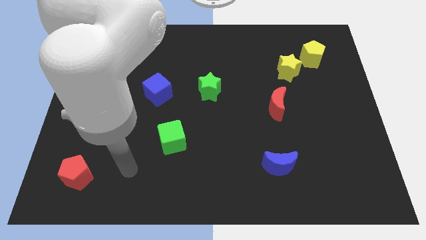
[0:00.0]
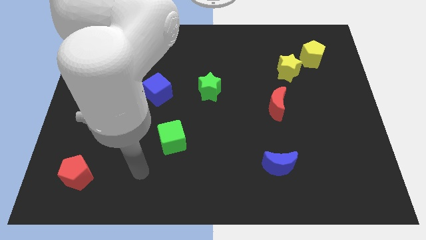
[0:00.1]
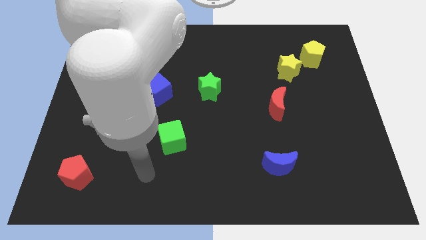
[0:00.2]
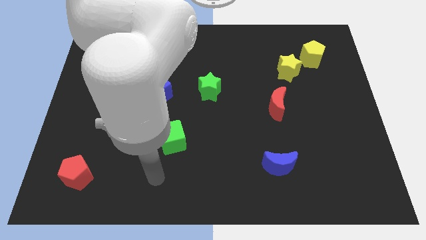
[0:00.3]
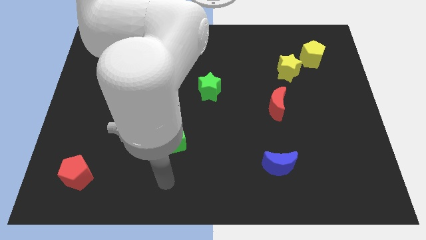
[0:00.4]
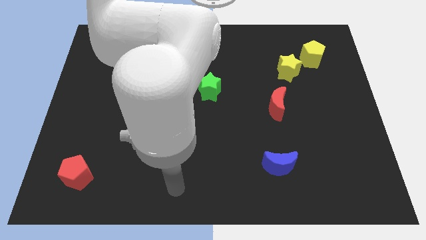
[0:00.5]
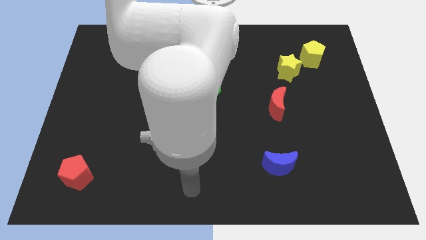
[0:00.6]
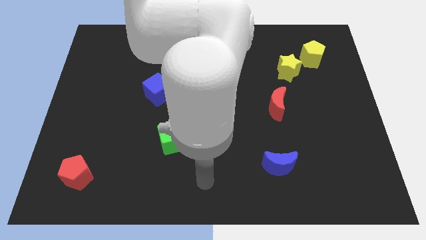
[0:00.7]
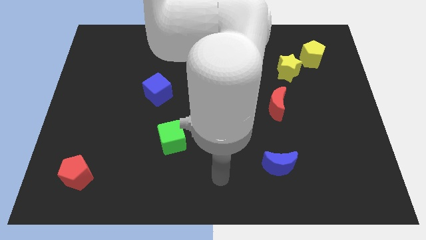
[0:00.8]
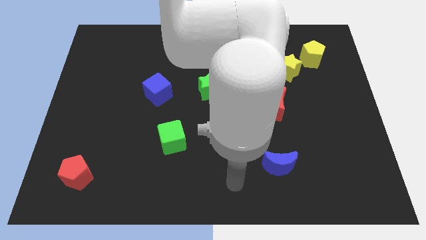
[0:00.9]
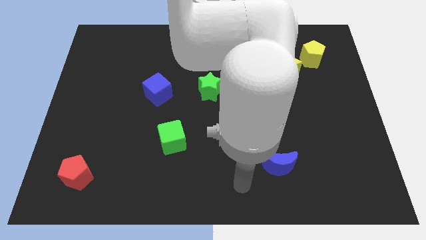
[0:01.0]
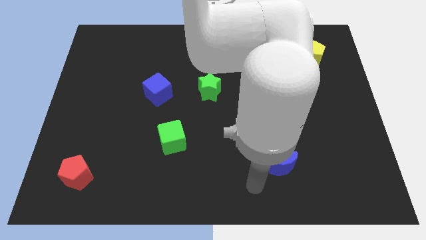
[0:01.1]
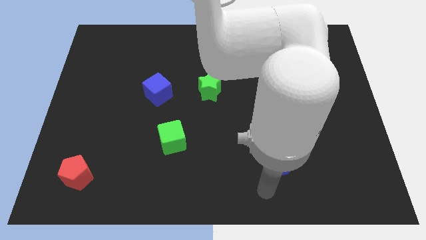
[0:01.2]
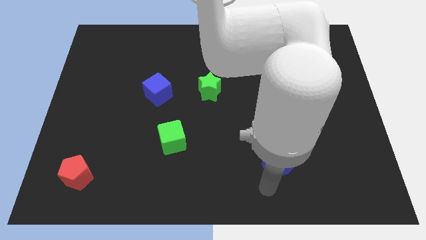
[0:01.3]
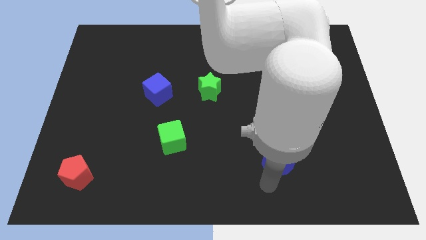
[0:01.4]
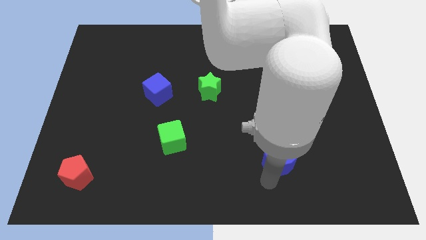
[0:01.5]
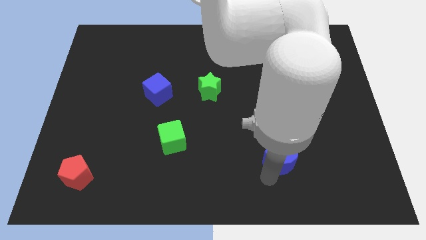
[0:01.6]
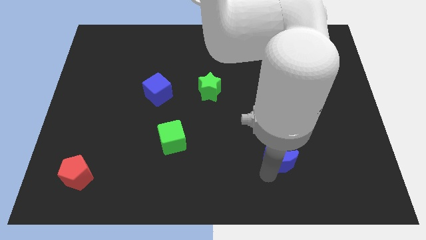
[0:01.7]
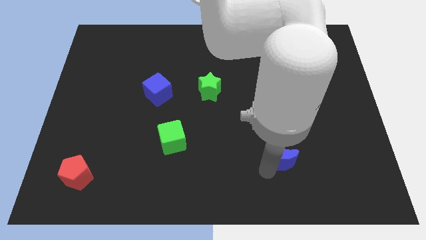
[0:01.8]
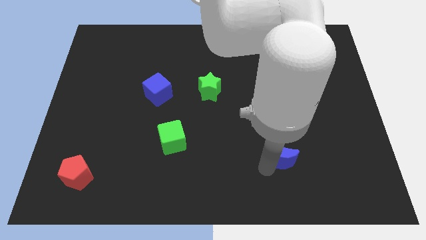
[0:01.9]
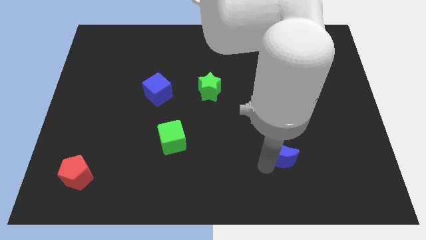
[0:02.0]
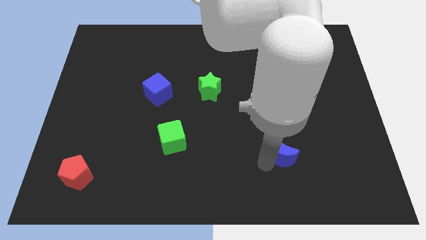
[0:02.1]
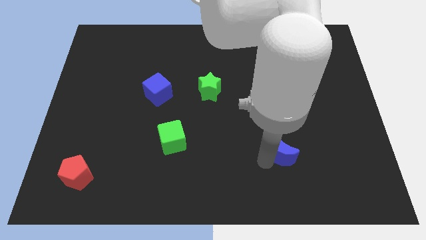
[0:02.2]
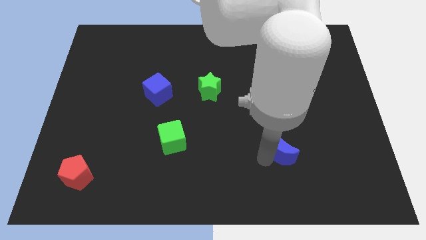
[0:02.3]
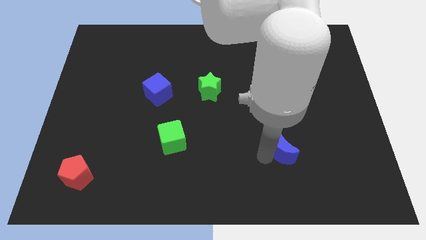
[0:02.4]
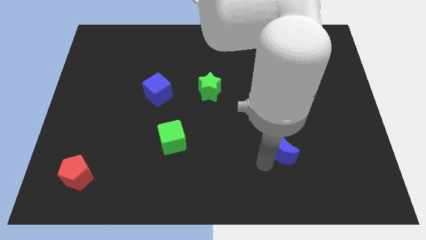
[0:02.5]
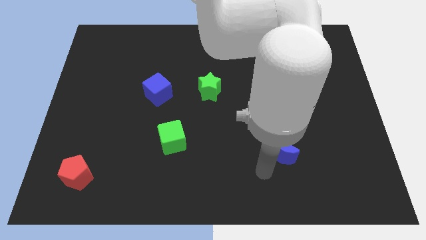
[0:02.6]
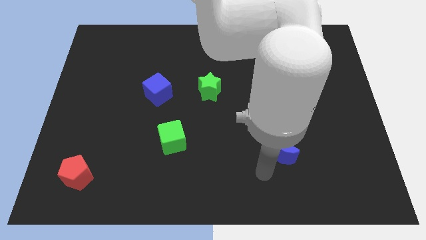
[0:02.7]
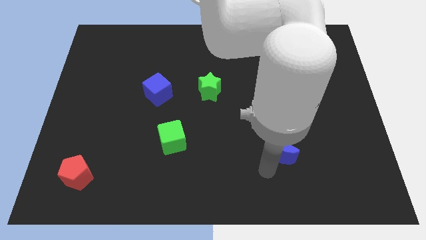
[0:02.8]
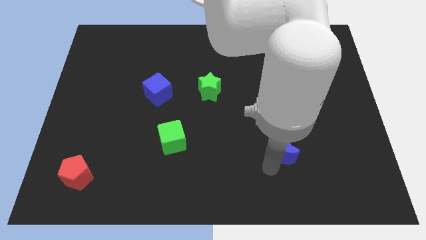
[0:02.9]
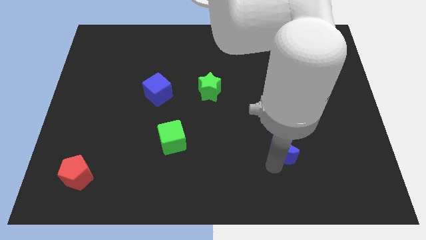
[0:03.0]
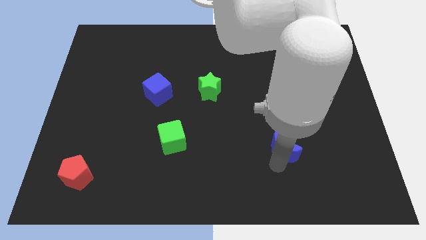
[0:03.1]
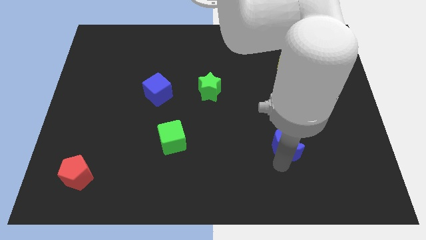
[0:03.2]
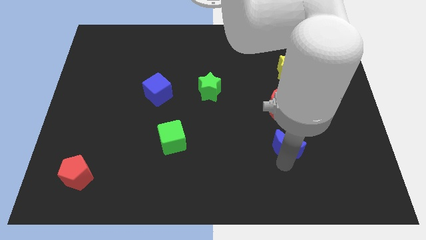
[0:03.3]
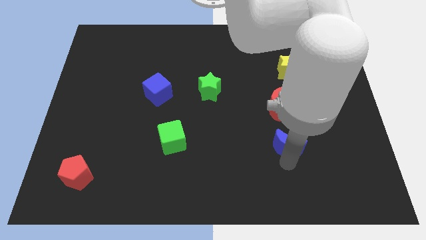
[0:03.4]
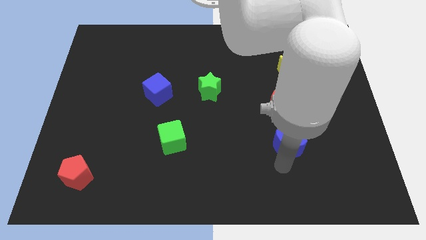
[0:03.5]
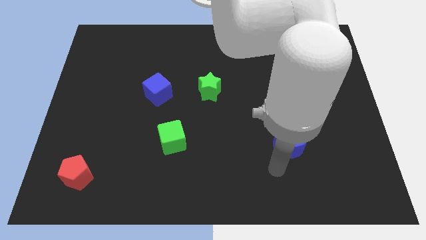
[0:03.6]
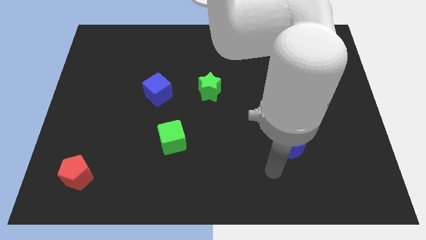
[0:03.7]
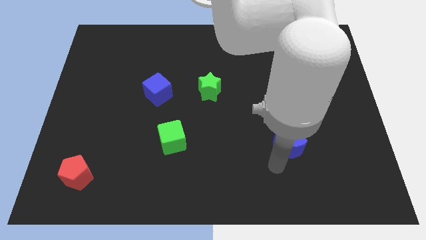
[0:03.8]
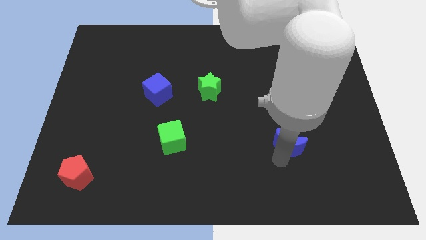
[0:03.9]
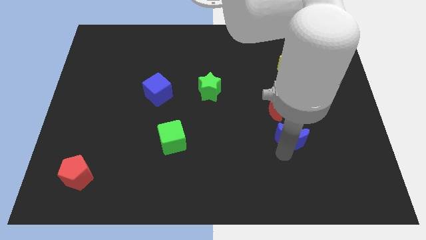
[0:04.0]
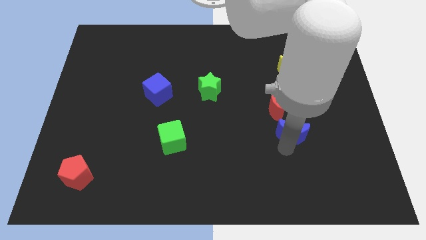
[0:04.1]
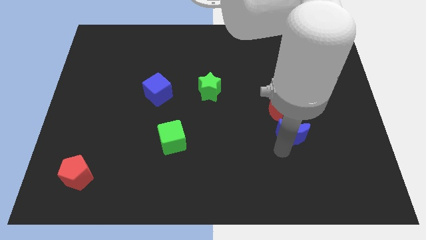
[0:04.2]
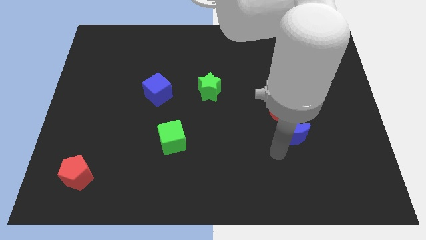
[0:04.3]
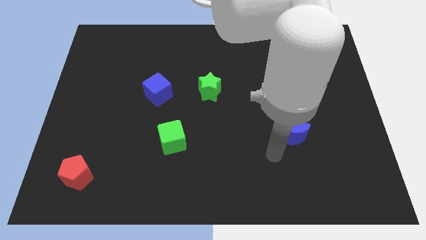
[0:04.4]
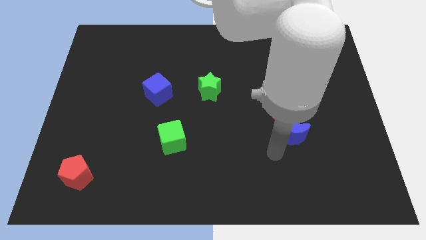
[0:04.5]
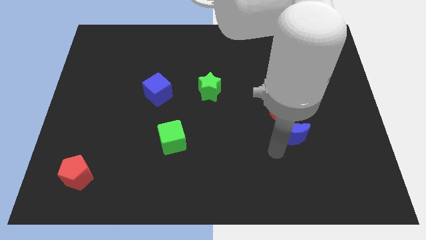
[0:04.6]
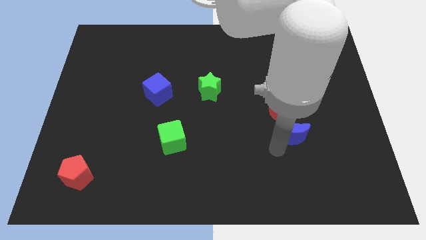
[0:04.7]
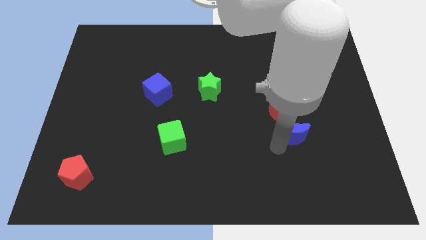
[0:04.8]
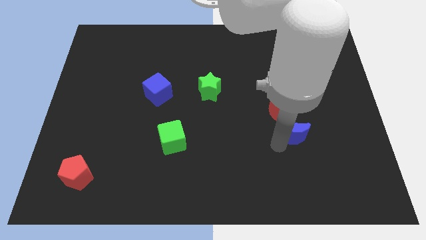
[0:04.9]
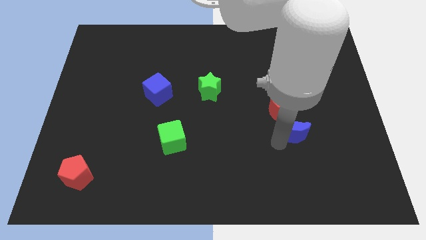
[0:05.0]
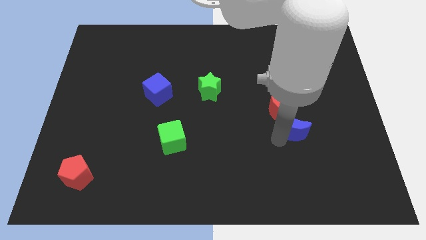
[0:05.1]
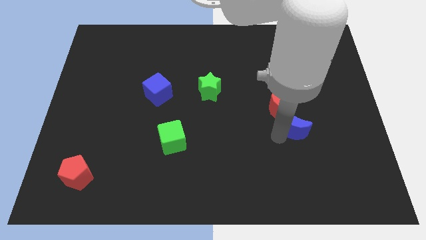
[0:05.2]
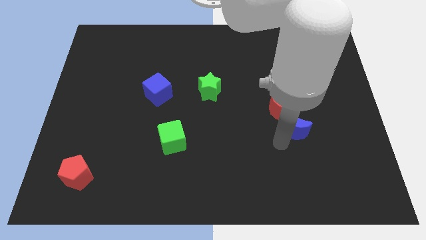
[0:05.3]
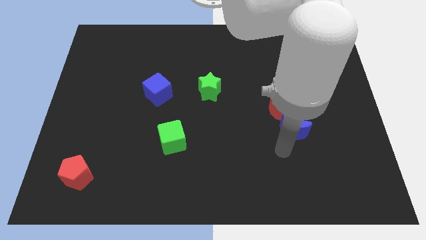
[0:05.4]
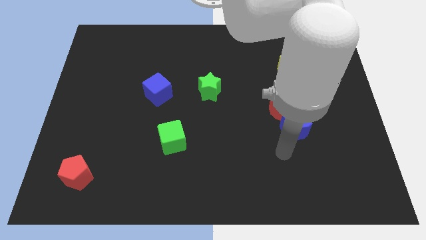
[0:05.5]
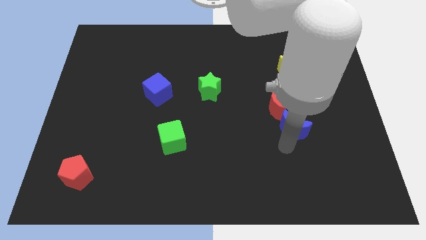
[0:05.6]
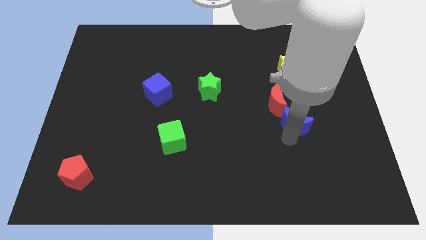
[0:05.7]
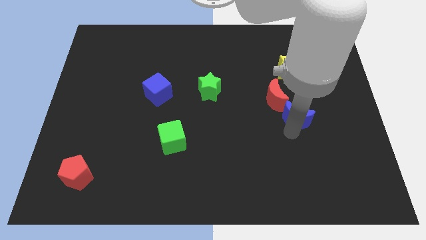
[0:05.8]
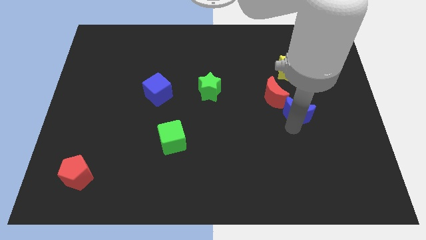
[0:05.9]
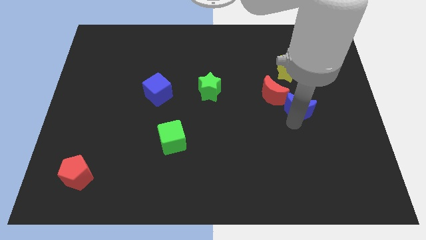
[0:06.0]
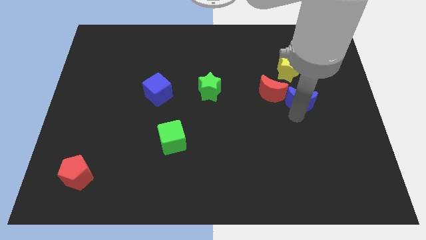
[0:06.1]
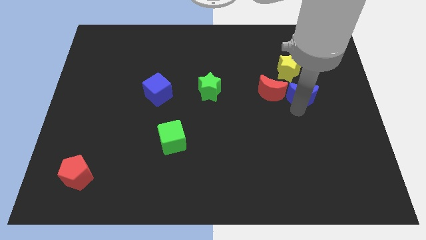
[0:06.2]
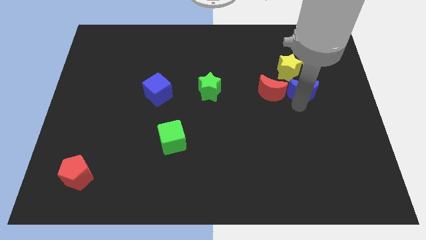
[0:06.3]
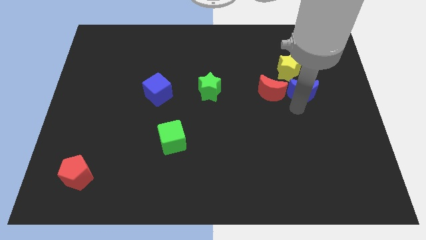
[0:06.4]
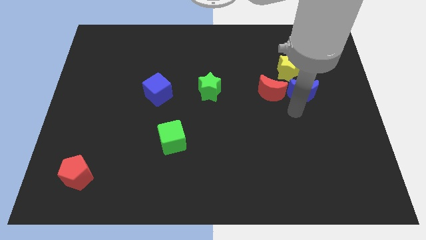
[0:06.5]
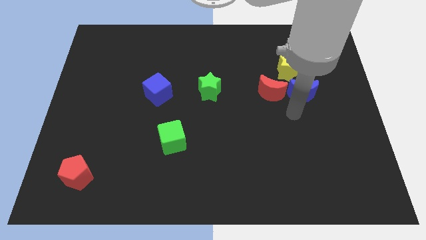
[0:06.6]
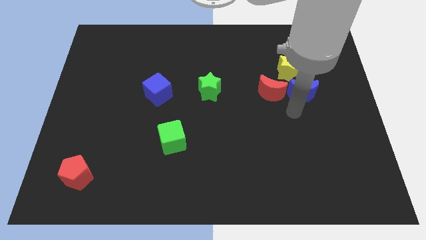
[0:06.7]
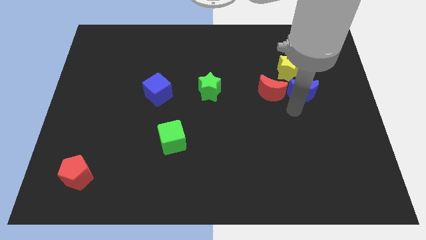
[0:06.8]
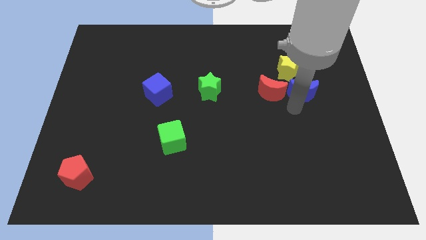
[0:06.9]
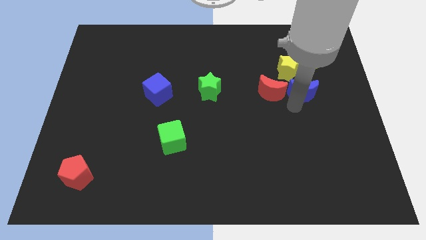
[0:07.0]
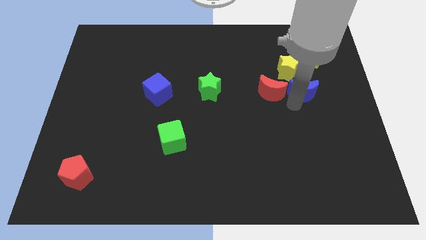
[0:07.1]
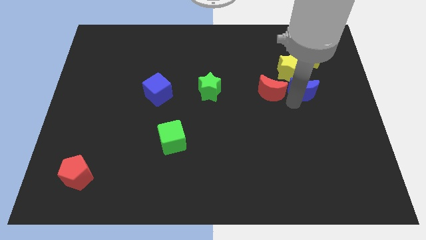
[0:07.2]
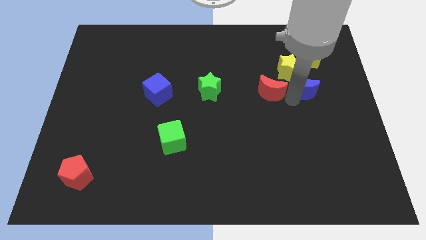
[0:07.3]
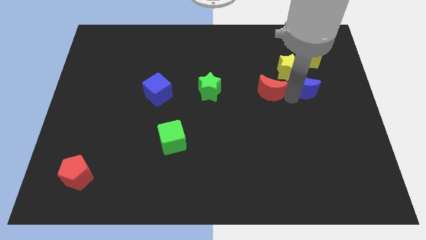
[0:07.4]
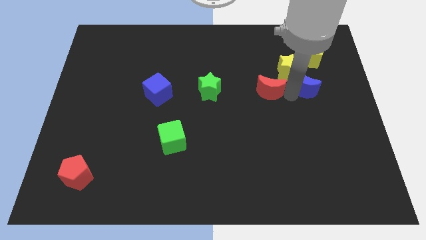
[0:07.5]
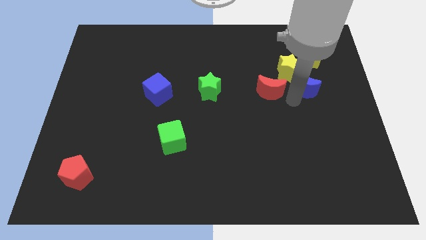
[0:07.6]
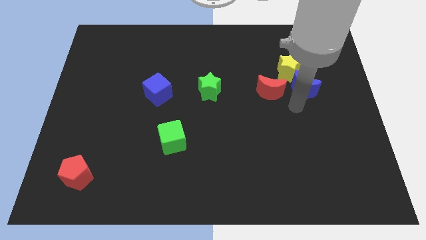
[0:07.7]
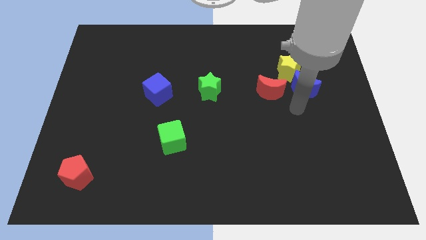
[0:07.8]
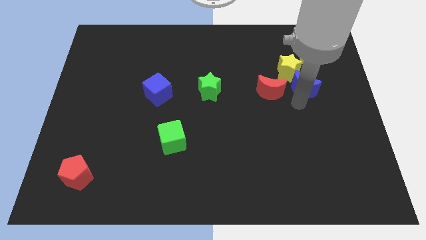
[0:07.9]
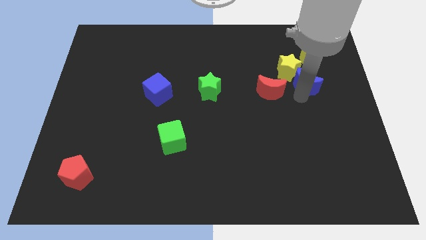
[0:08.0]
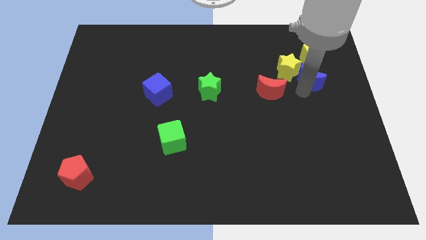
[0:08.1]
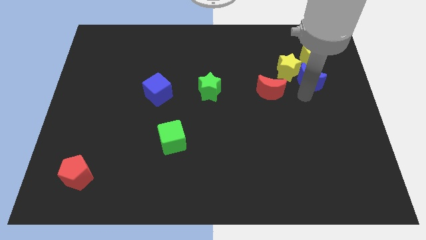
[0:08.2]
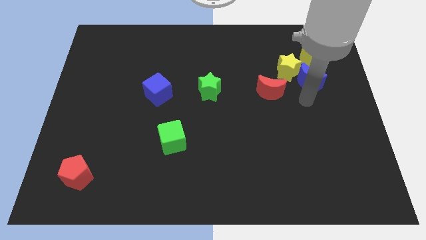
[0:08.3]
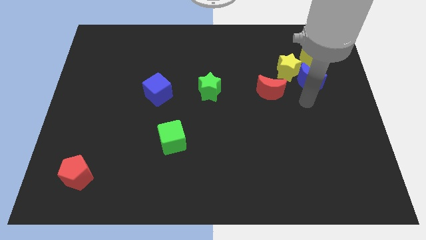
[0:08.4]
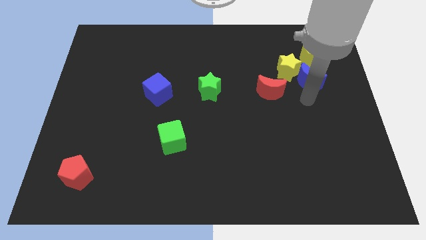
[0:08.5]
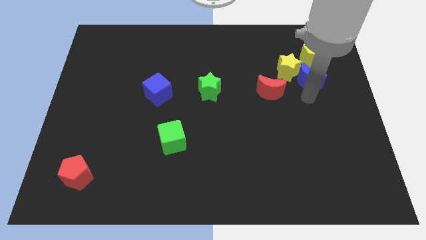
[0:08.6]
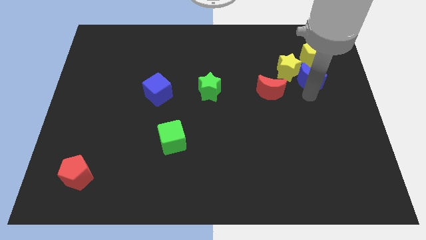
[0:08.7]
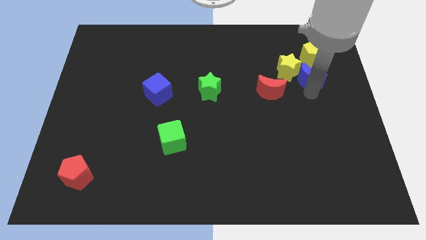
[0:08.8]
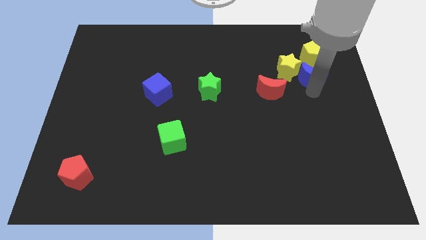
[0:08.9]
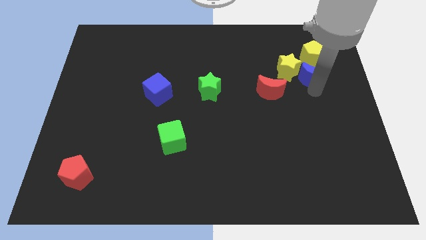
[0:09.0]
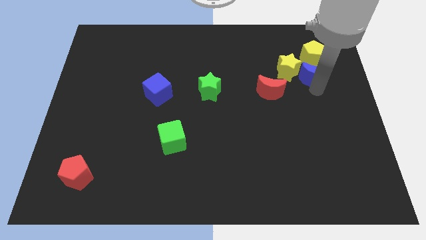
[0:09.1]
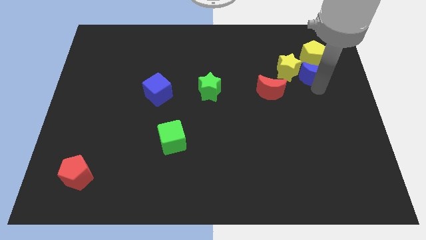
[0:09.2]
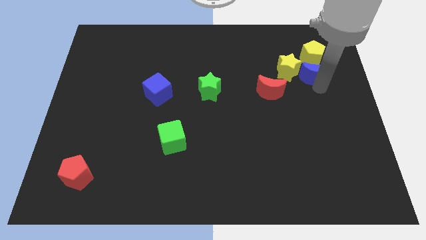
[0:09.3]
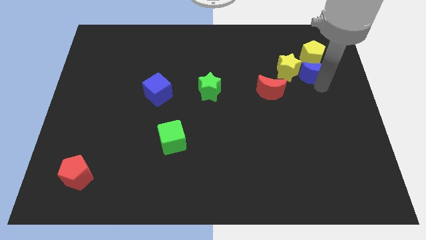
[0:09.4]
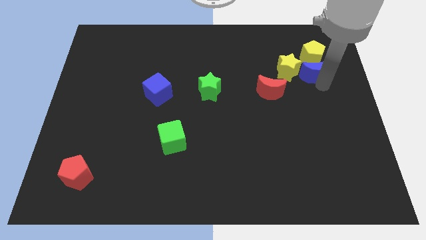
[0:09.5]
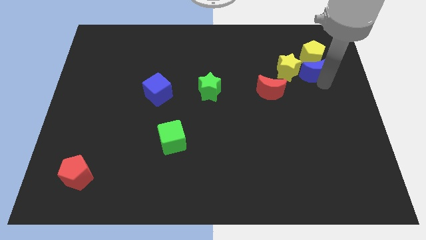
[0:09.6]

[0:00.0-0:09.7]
move the blue moon next to the yellow pentagon
